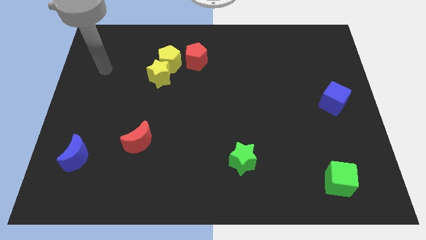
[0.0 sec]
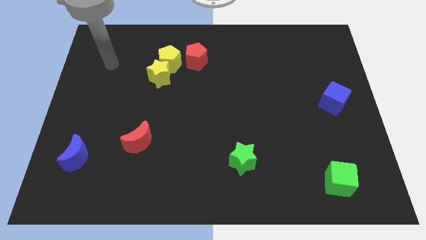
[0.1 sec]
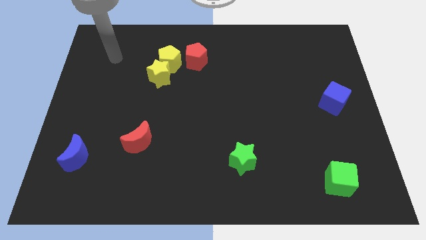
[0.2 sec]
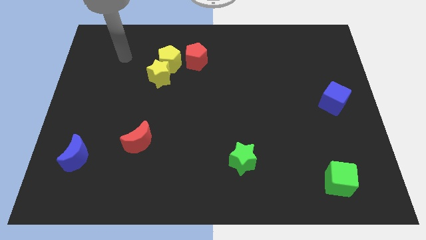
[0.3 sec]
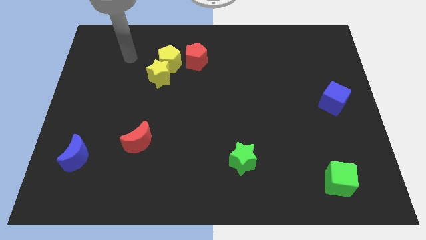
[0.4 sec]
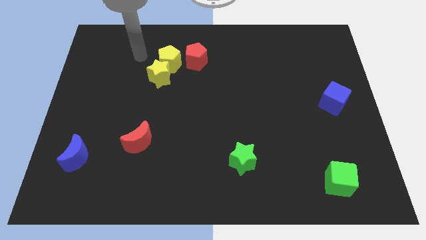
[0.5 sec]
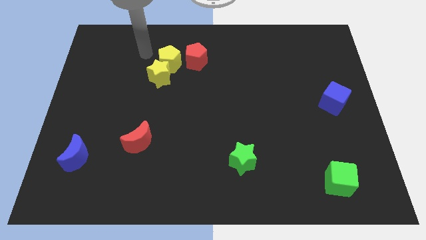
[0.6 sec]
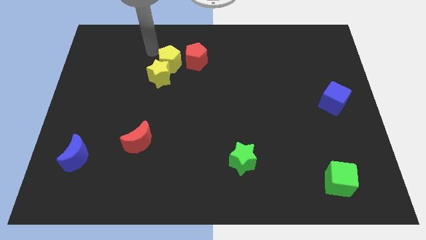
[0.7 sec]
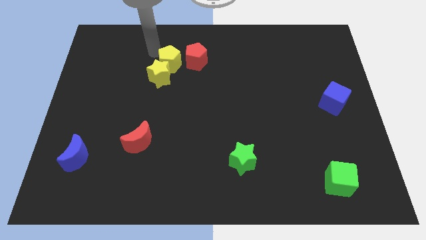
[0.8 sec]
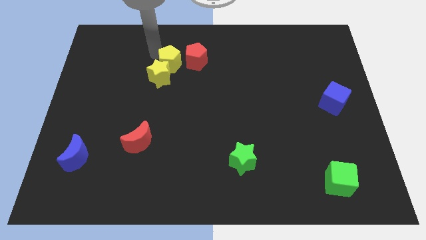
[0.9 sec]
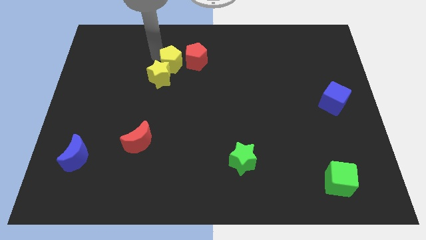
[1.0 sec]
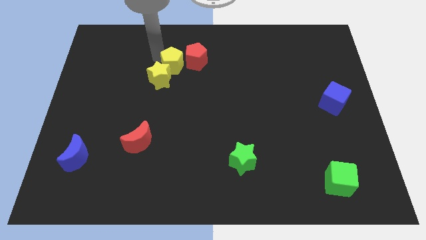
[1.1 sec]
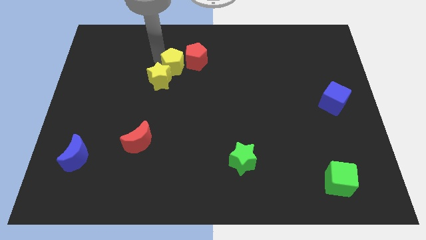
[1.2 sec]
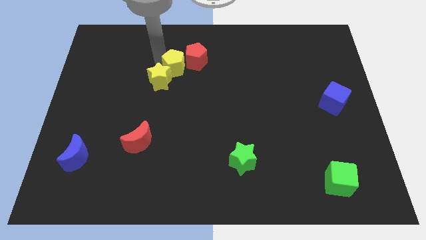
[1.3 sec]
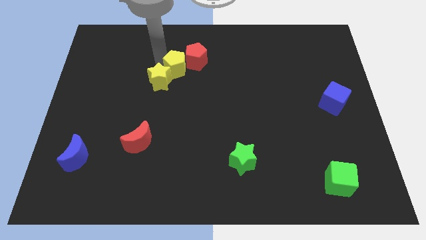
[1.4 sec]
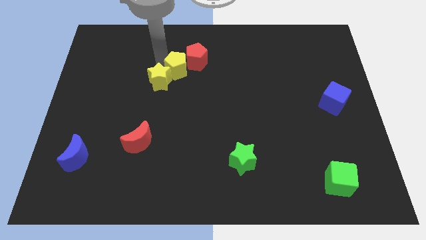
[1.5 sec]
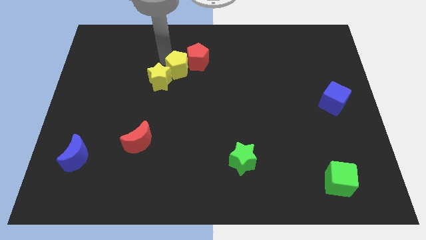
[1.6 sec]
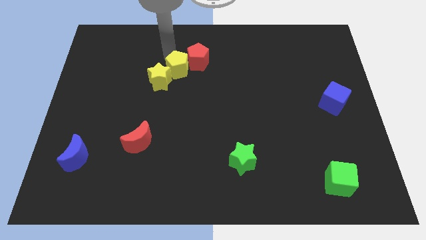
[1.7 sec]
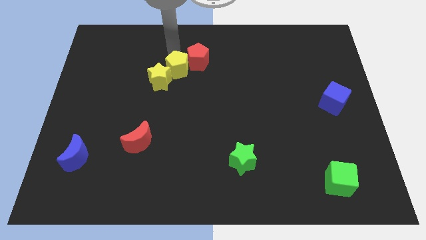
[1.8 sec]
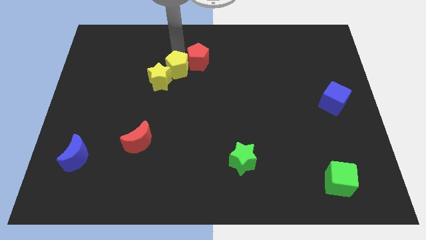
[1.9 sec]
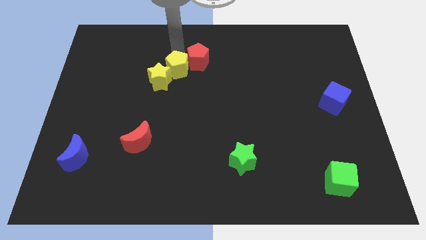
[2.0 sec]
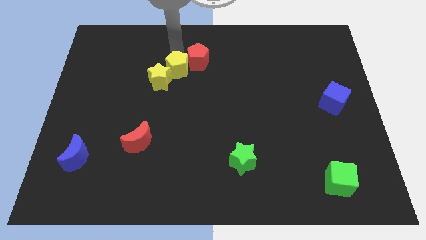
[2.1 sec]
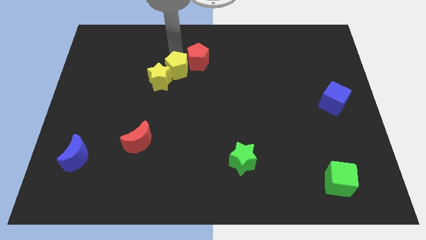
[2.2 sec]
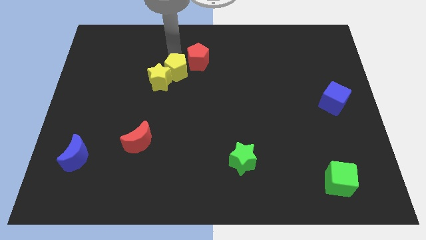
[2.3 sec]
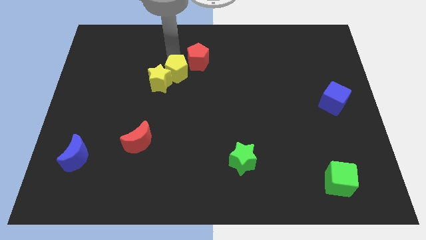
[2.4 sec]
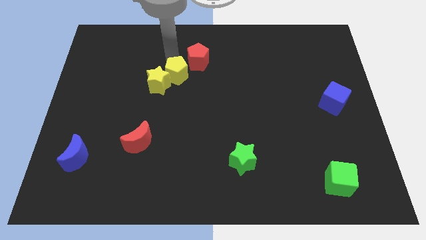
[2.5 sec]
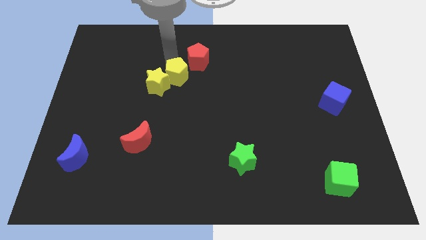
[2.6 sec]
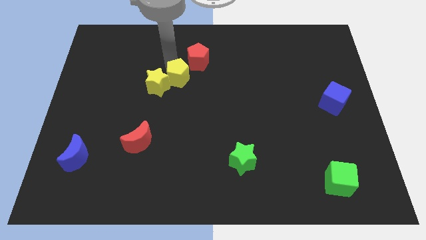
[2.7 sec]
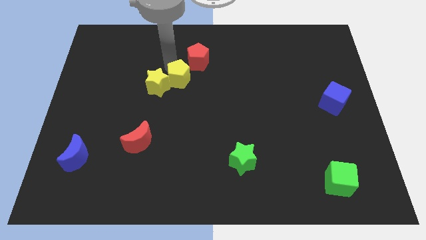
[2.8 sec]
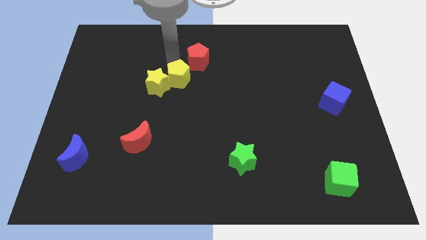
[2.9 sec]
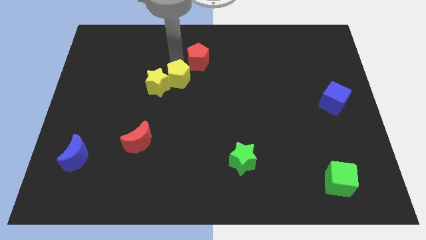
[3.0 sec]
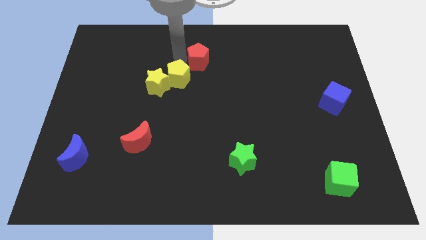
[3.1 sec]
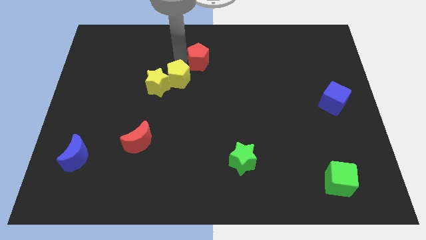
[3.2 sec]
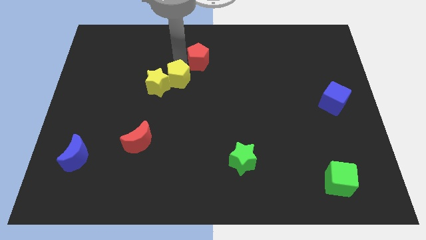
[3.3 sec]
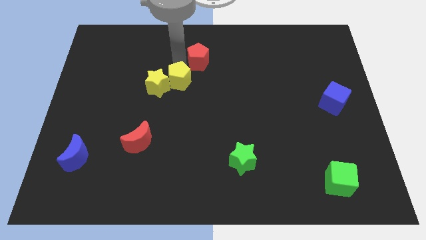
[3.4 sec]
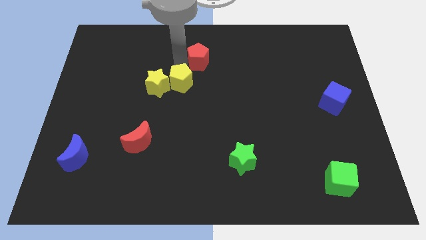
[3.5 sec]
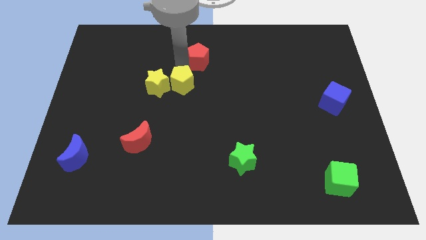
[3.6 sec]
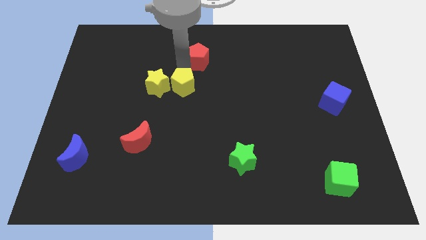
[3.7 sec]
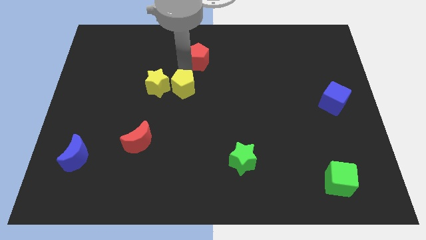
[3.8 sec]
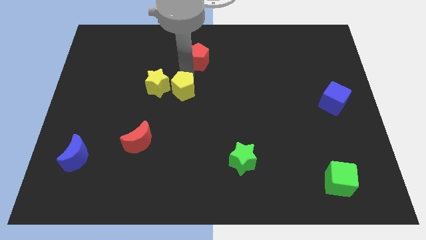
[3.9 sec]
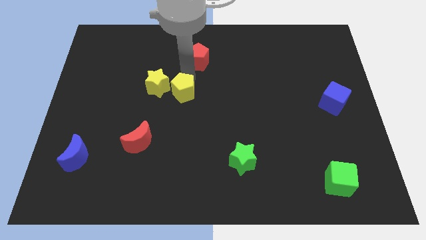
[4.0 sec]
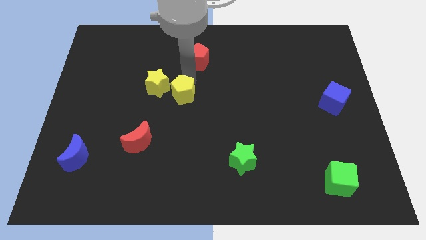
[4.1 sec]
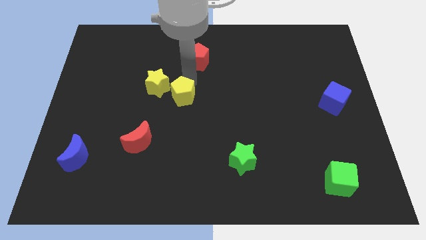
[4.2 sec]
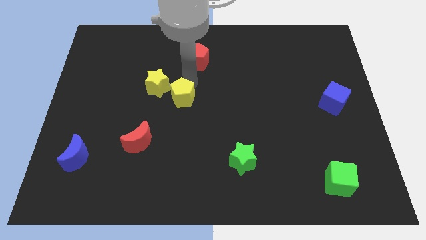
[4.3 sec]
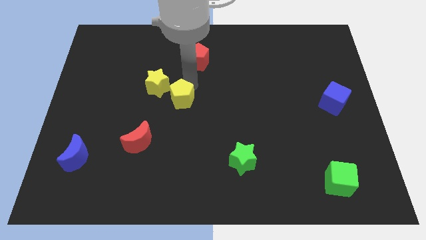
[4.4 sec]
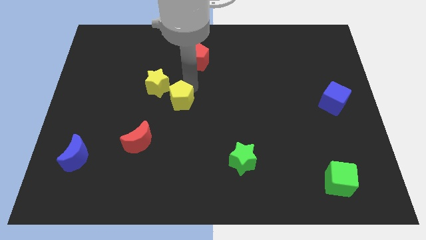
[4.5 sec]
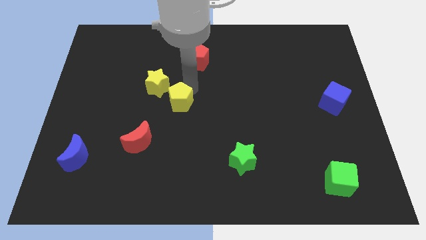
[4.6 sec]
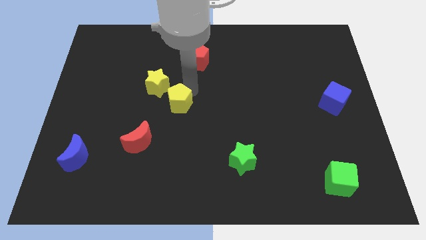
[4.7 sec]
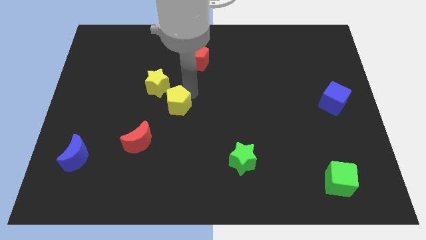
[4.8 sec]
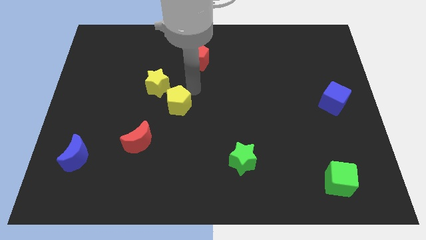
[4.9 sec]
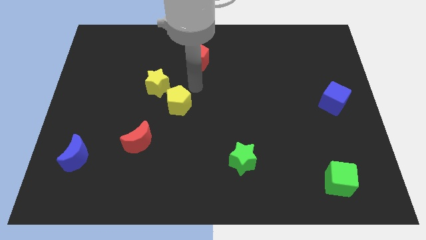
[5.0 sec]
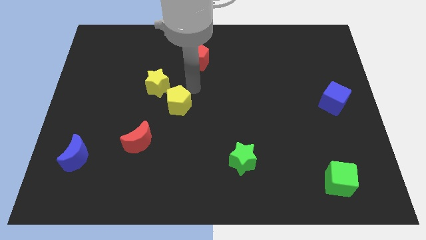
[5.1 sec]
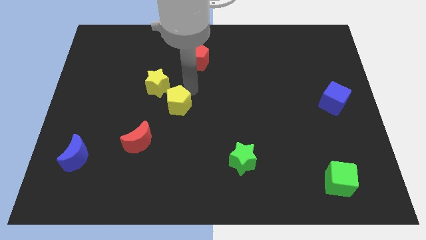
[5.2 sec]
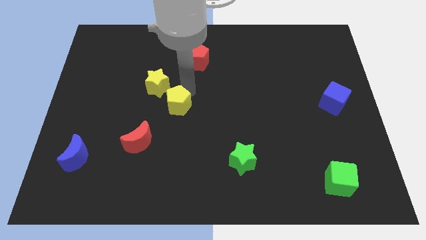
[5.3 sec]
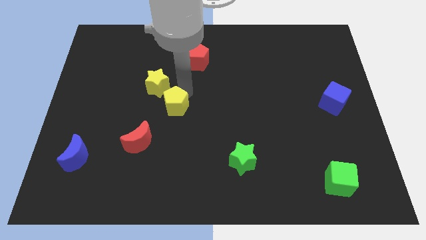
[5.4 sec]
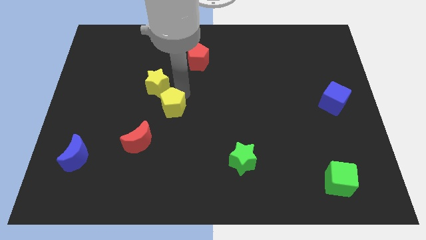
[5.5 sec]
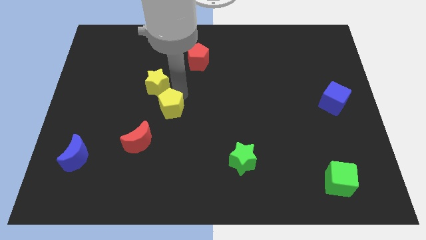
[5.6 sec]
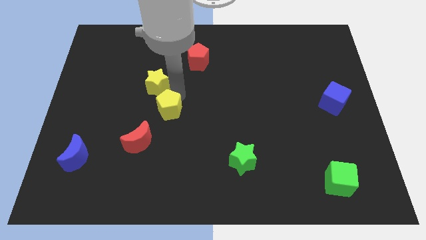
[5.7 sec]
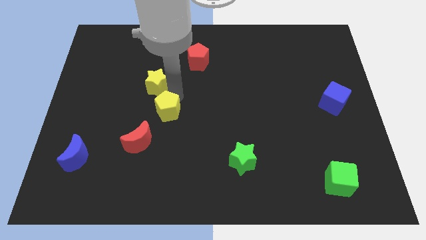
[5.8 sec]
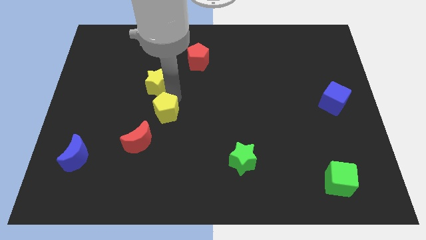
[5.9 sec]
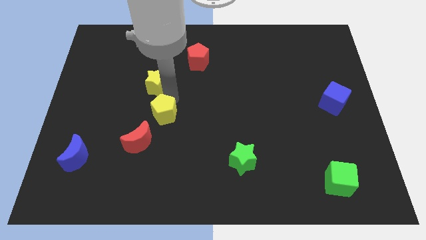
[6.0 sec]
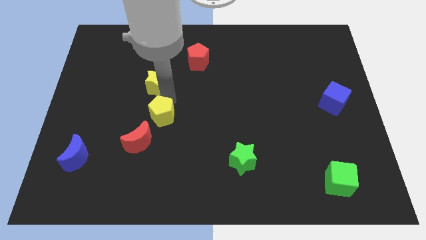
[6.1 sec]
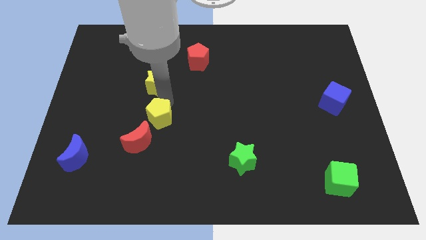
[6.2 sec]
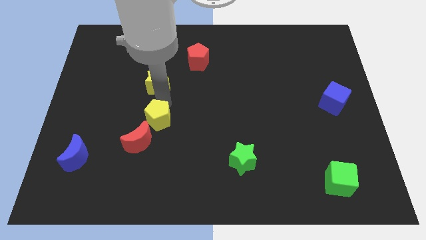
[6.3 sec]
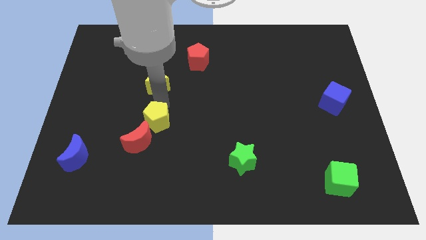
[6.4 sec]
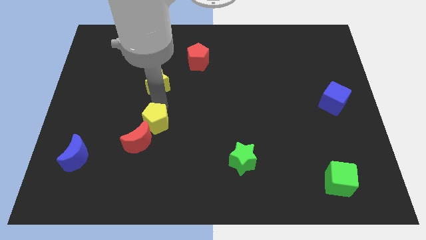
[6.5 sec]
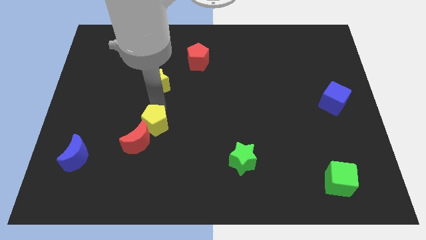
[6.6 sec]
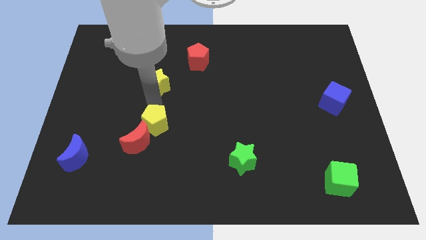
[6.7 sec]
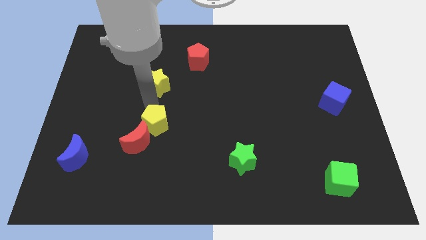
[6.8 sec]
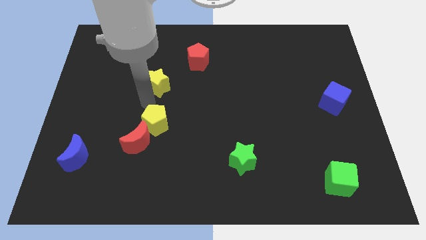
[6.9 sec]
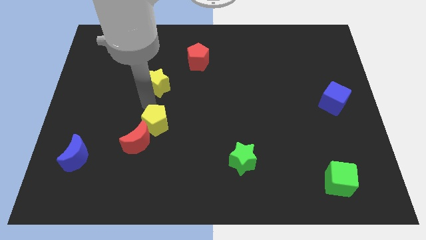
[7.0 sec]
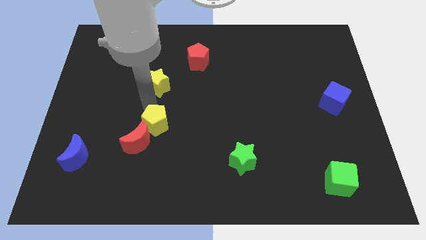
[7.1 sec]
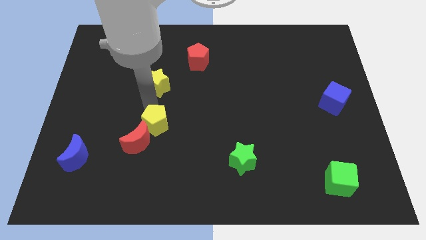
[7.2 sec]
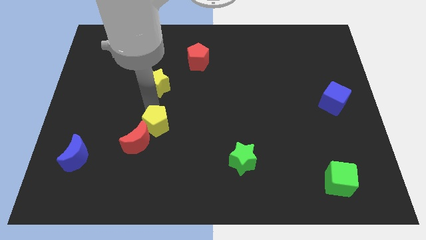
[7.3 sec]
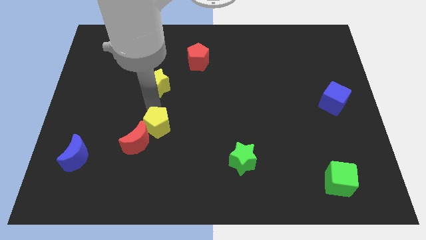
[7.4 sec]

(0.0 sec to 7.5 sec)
move the yellow pentagon down

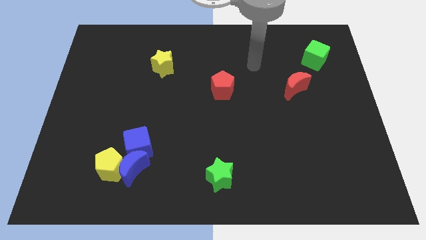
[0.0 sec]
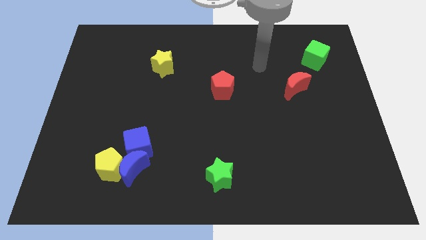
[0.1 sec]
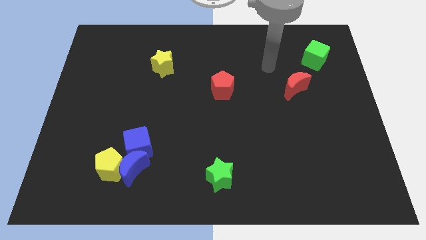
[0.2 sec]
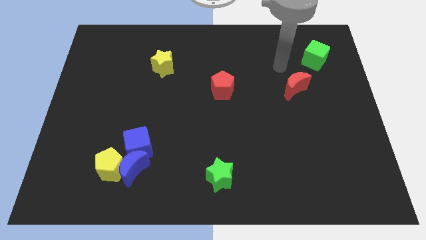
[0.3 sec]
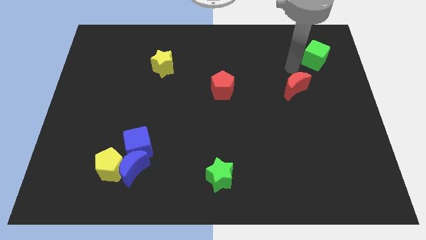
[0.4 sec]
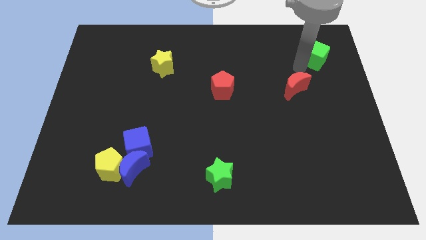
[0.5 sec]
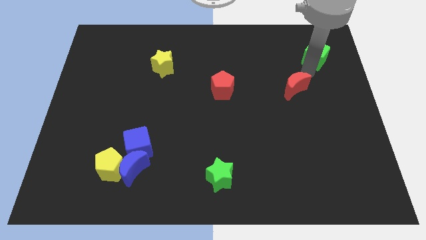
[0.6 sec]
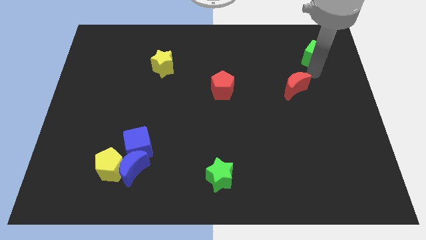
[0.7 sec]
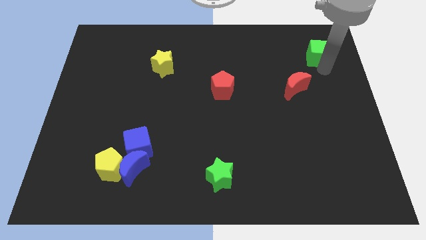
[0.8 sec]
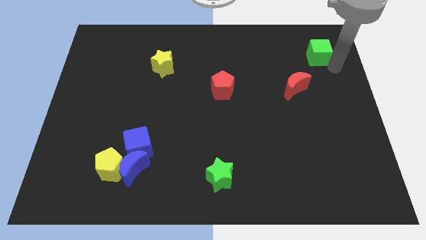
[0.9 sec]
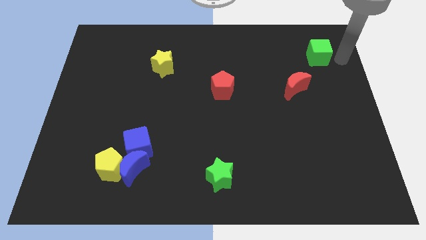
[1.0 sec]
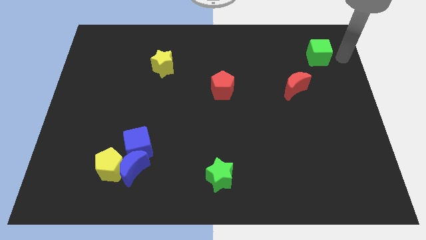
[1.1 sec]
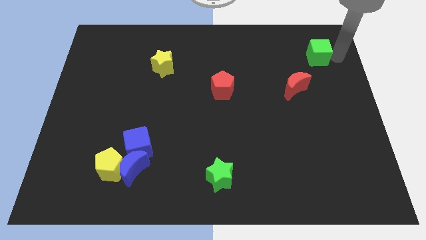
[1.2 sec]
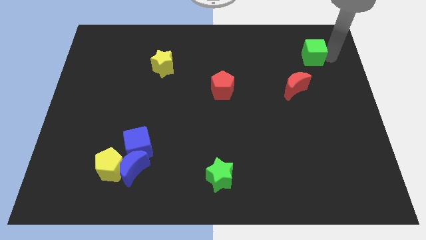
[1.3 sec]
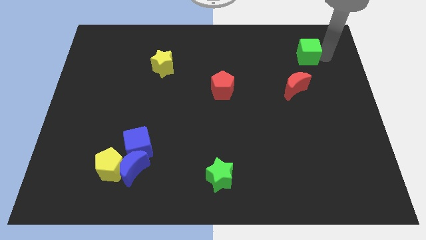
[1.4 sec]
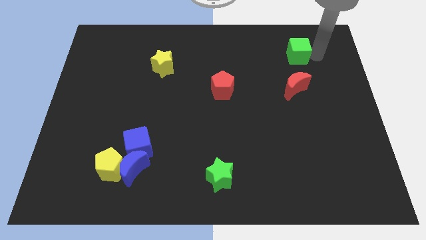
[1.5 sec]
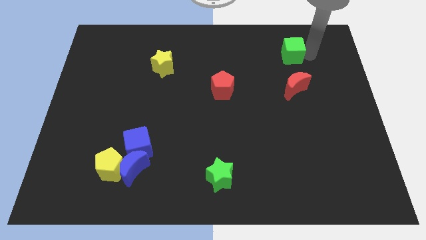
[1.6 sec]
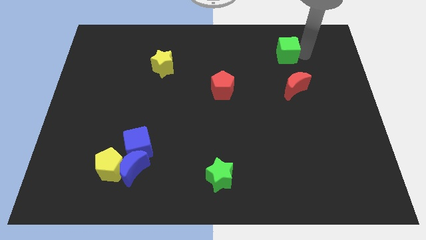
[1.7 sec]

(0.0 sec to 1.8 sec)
slightly move the green cube to the left
